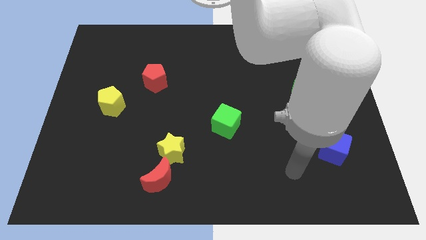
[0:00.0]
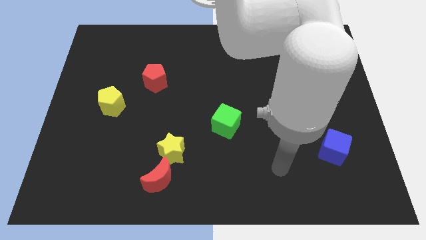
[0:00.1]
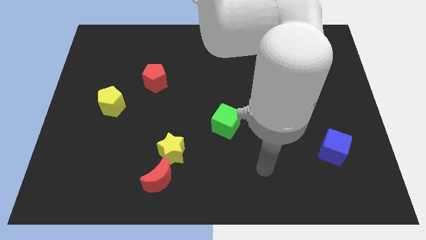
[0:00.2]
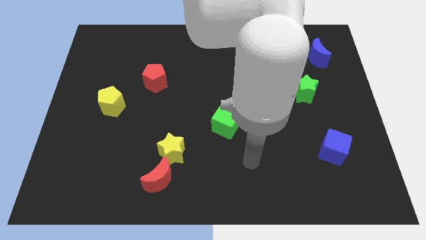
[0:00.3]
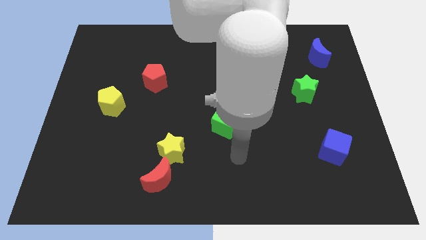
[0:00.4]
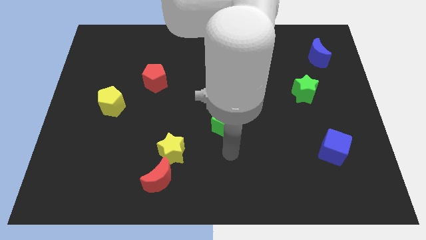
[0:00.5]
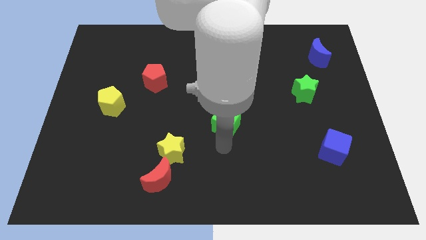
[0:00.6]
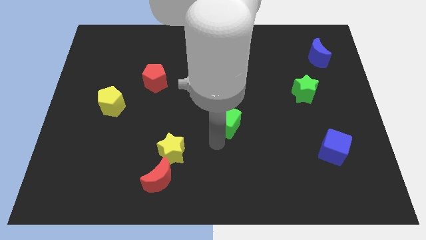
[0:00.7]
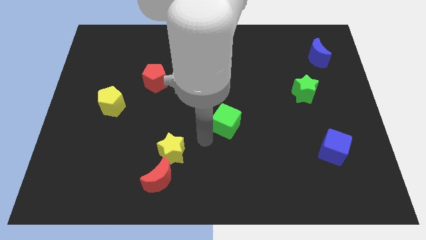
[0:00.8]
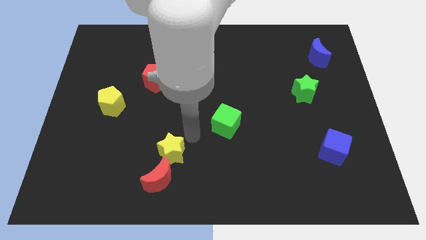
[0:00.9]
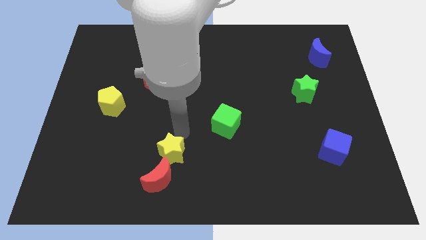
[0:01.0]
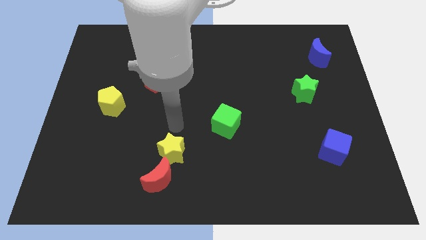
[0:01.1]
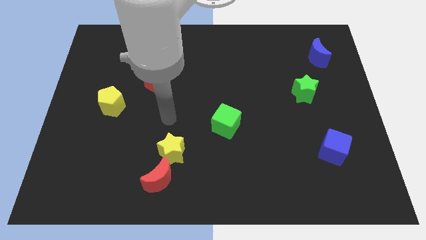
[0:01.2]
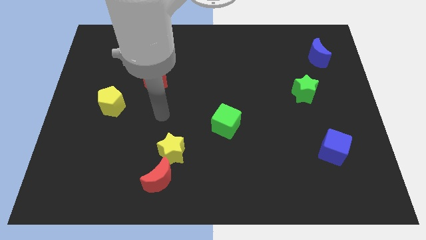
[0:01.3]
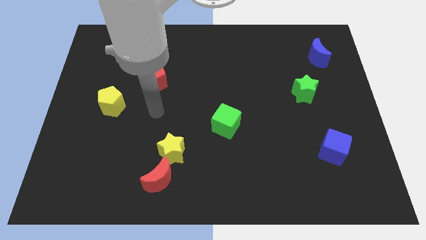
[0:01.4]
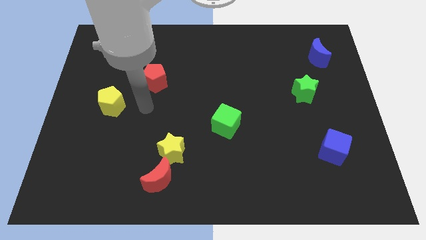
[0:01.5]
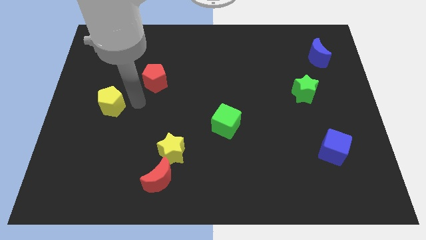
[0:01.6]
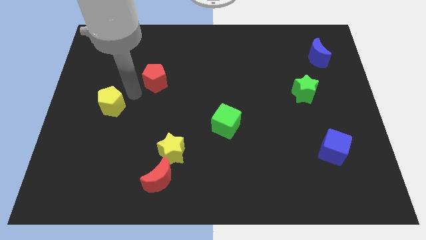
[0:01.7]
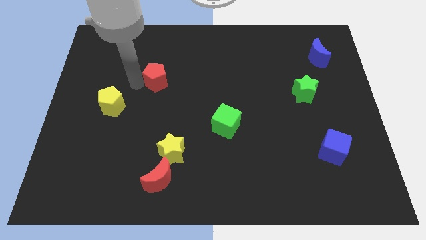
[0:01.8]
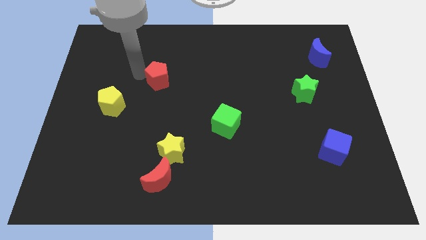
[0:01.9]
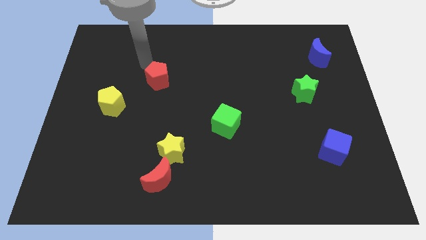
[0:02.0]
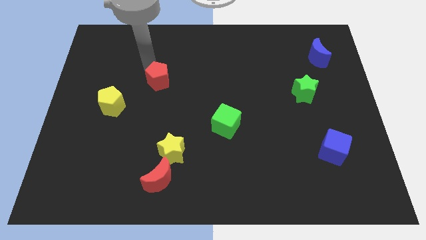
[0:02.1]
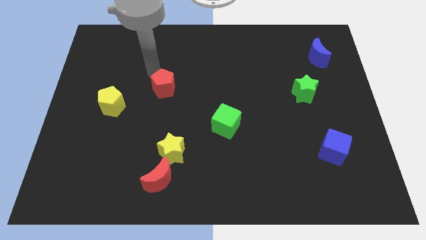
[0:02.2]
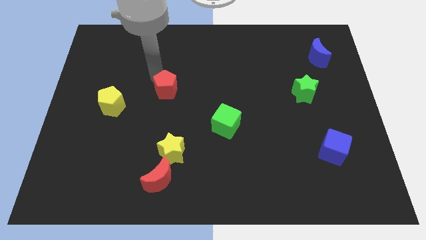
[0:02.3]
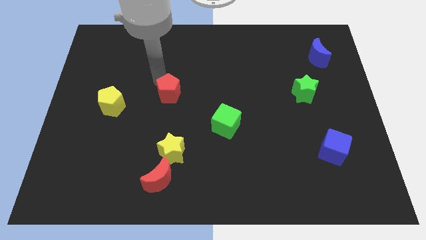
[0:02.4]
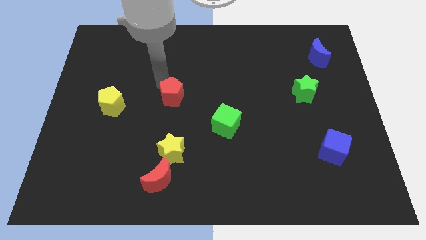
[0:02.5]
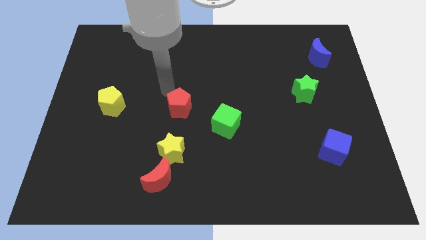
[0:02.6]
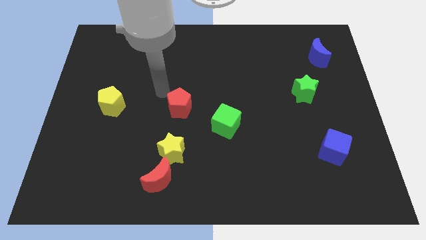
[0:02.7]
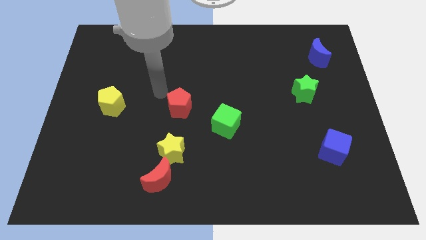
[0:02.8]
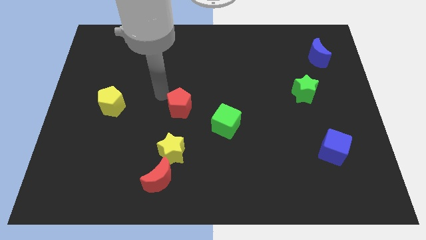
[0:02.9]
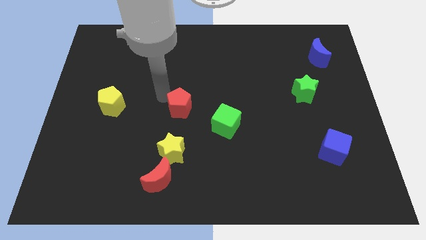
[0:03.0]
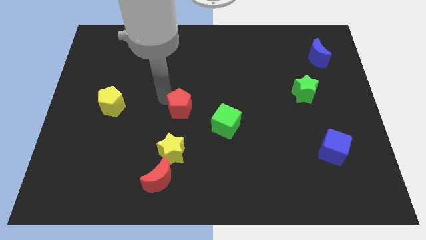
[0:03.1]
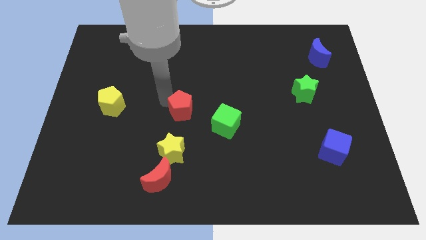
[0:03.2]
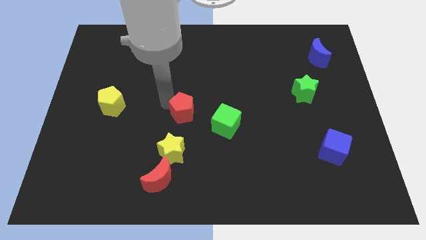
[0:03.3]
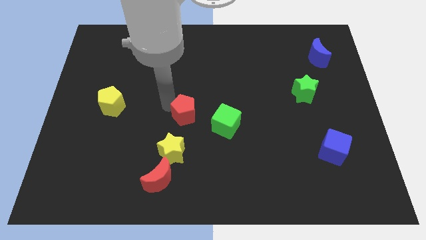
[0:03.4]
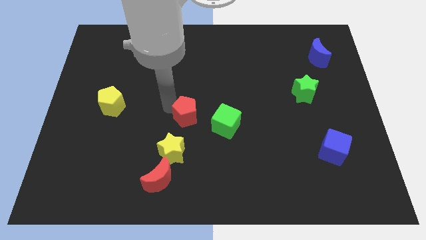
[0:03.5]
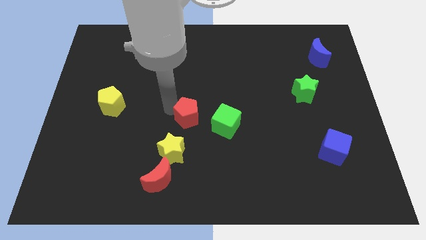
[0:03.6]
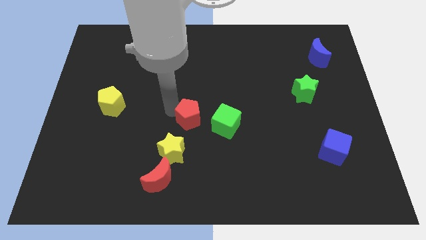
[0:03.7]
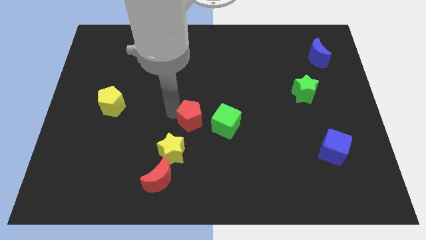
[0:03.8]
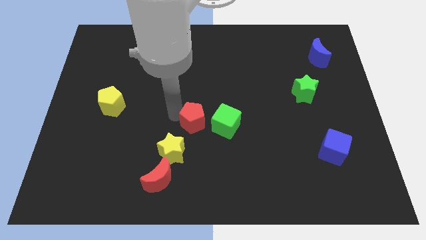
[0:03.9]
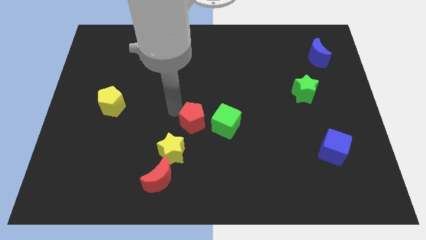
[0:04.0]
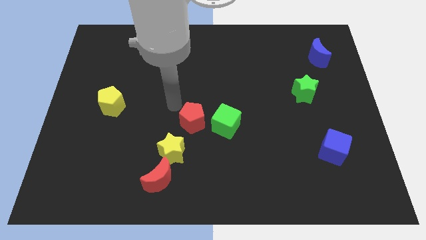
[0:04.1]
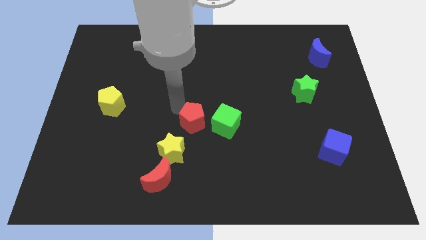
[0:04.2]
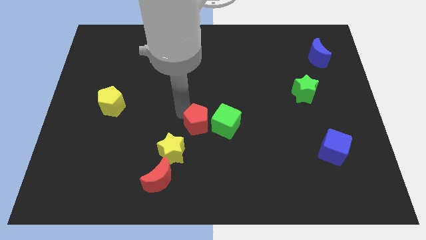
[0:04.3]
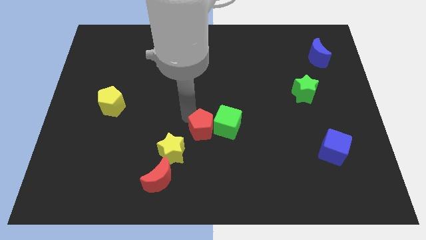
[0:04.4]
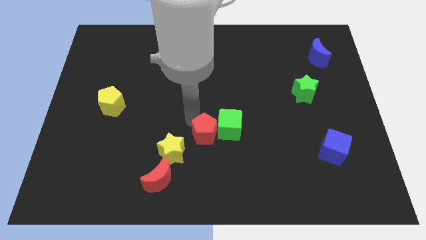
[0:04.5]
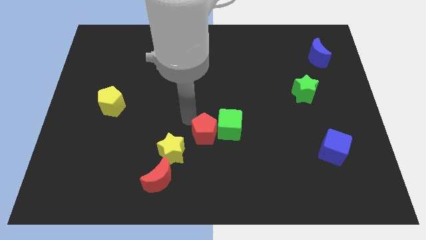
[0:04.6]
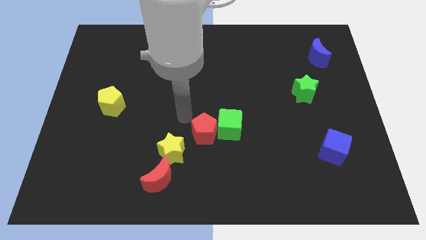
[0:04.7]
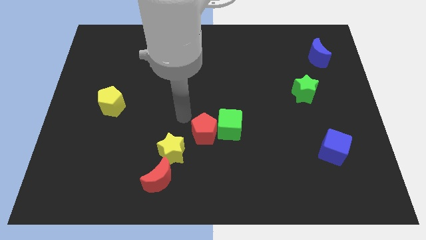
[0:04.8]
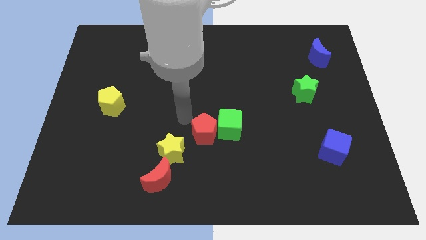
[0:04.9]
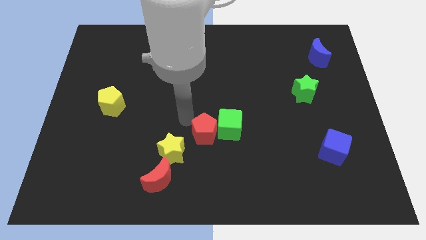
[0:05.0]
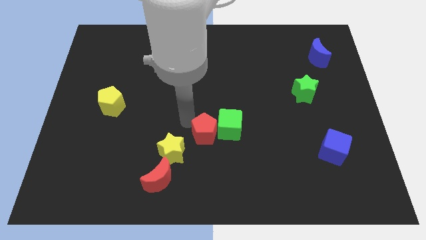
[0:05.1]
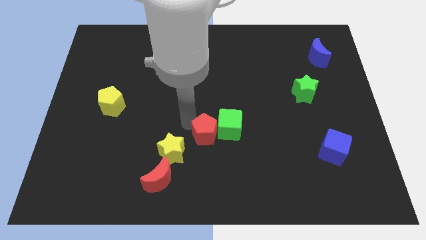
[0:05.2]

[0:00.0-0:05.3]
push the red pentagon down and to the right diagonally

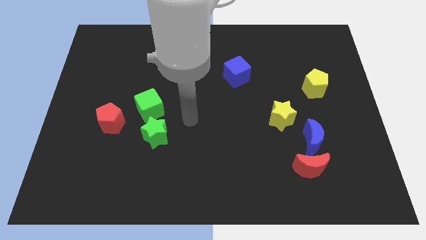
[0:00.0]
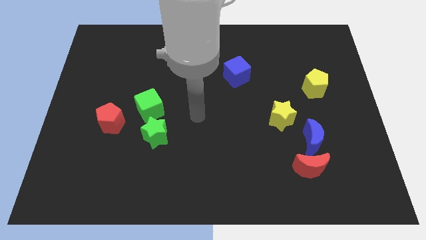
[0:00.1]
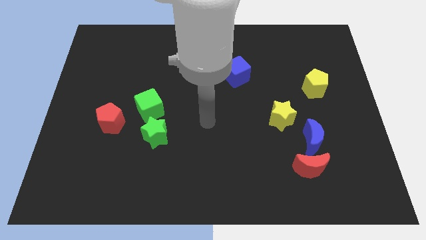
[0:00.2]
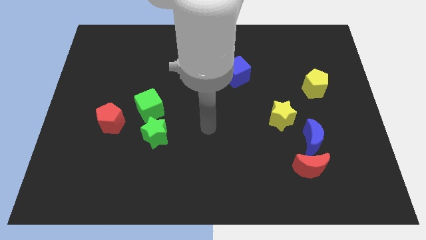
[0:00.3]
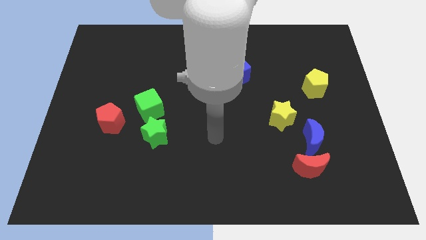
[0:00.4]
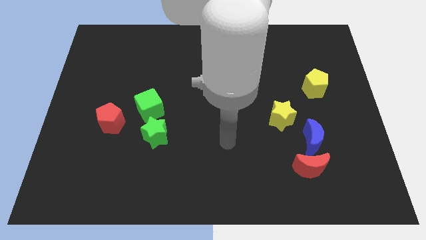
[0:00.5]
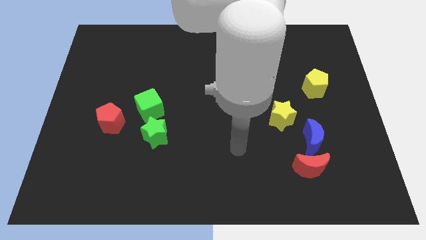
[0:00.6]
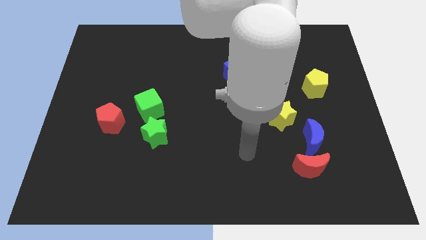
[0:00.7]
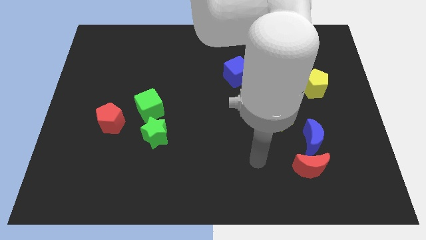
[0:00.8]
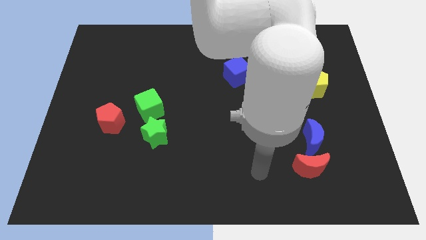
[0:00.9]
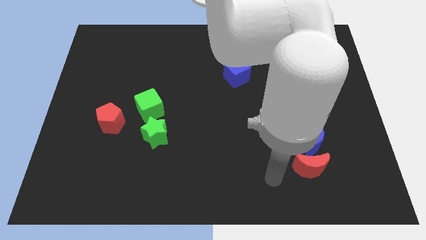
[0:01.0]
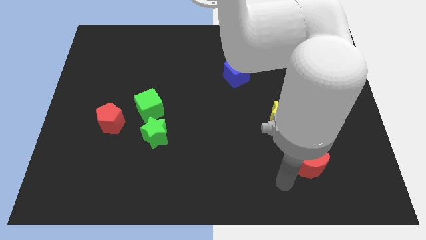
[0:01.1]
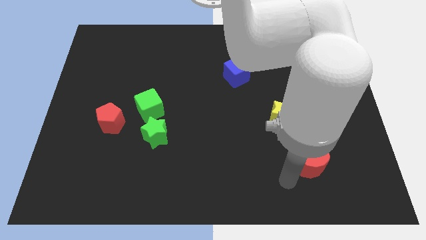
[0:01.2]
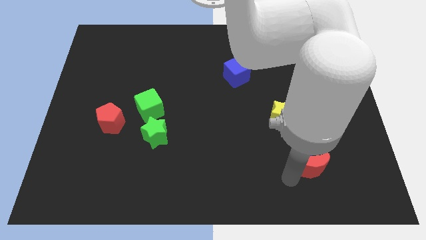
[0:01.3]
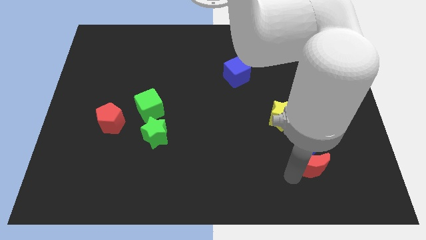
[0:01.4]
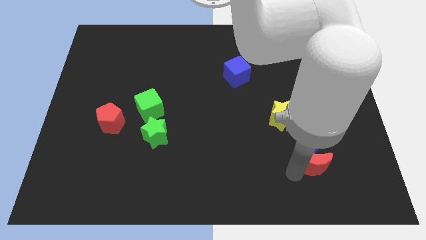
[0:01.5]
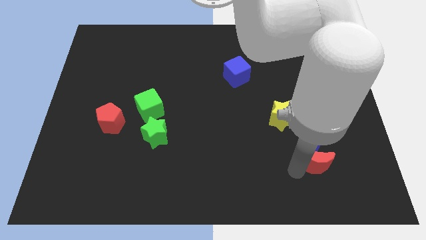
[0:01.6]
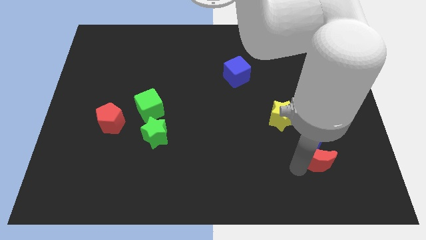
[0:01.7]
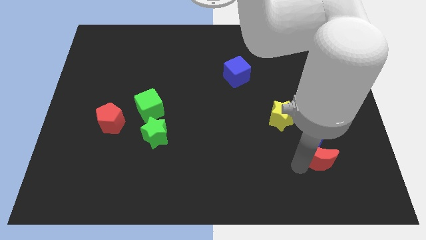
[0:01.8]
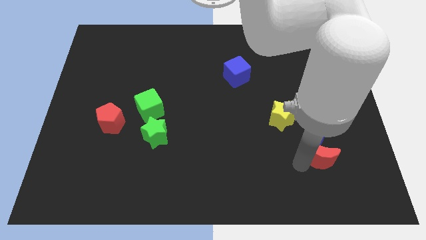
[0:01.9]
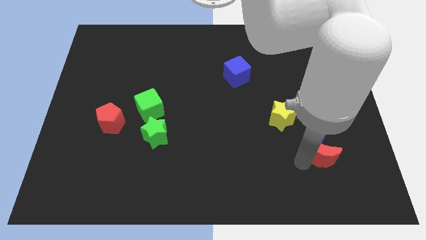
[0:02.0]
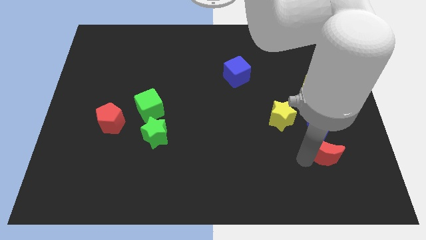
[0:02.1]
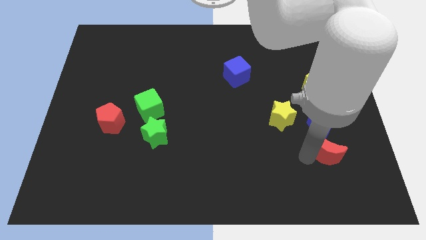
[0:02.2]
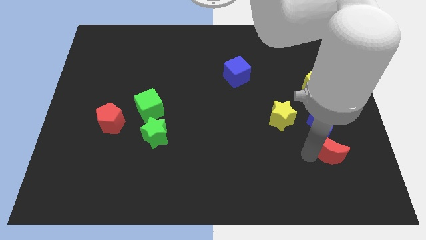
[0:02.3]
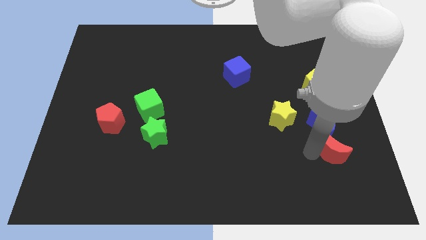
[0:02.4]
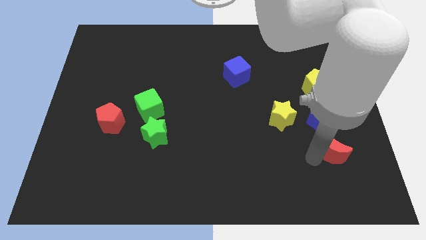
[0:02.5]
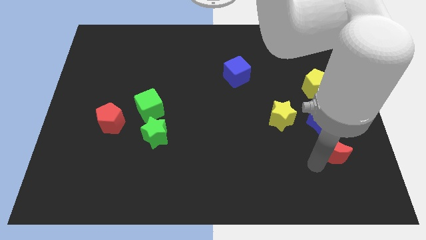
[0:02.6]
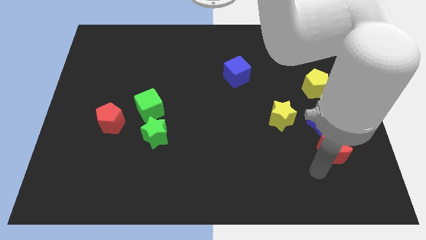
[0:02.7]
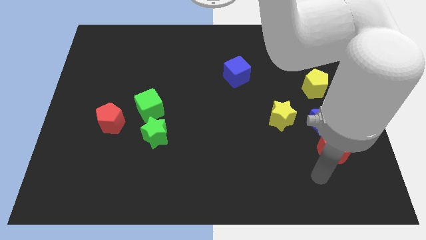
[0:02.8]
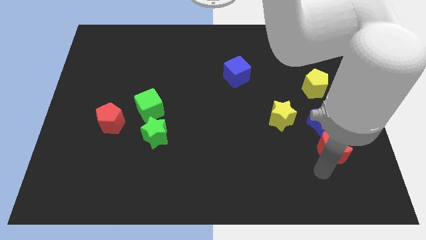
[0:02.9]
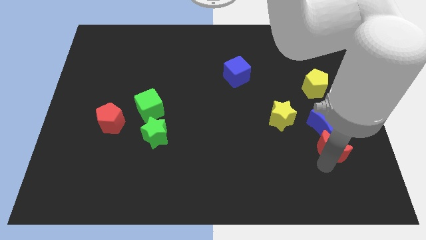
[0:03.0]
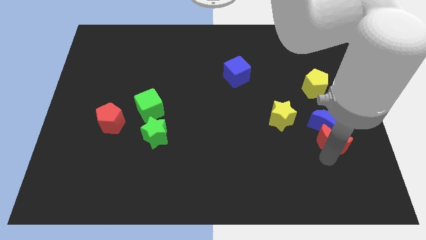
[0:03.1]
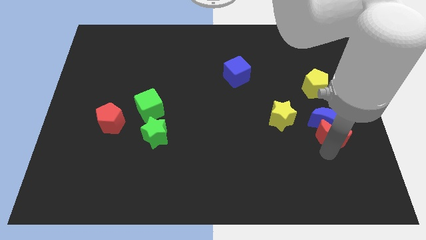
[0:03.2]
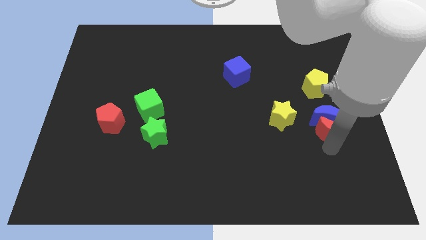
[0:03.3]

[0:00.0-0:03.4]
move the red moon upwards a little
